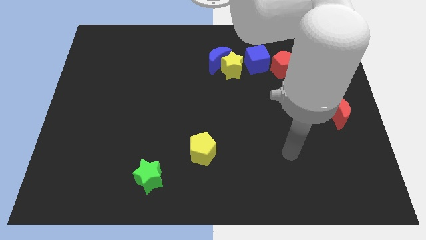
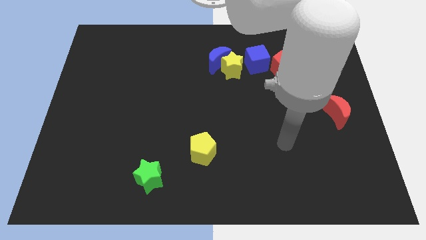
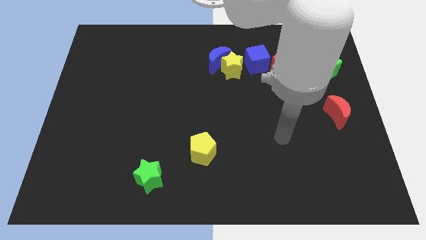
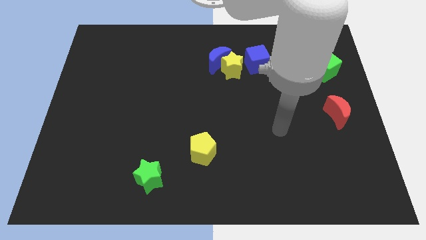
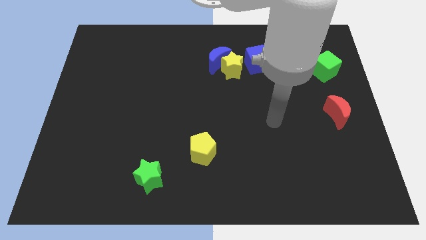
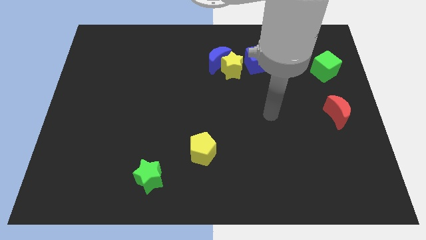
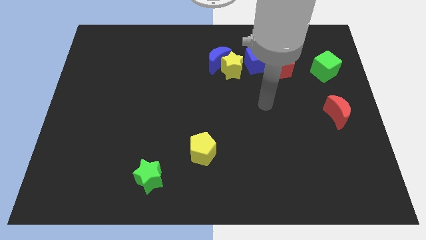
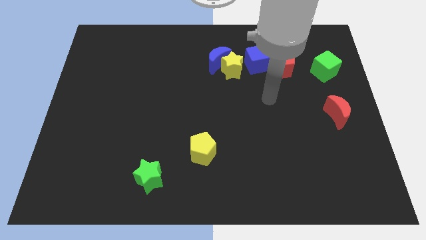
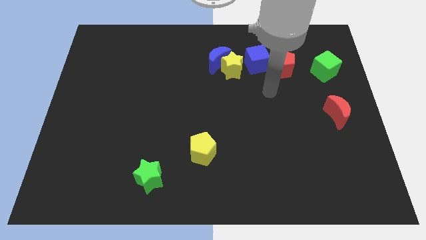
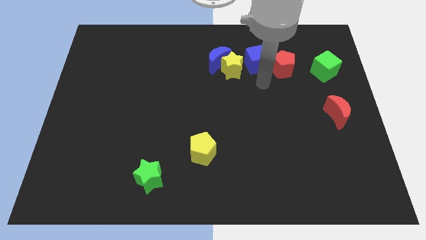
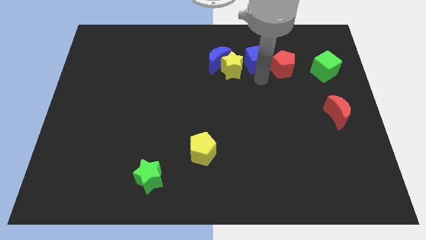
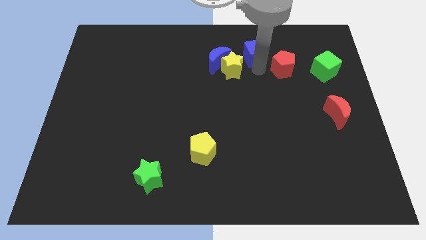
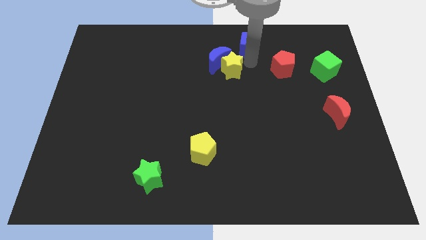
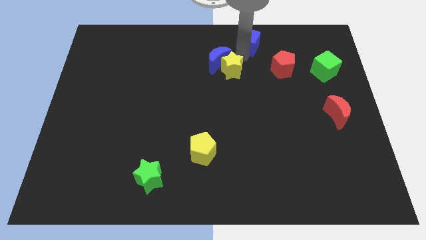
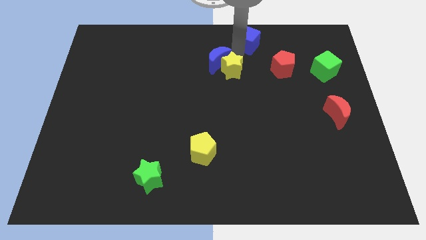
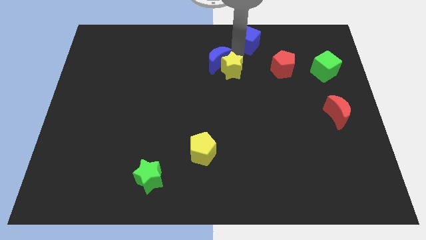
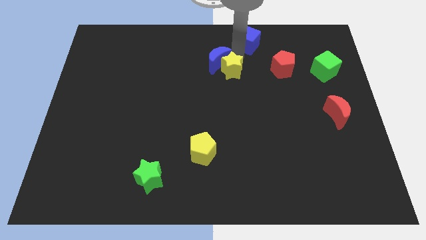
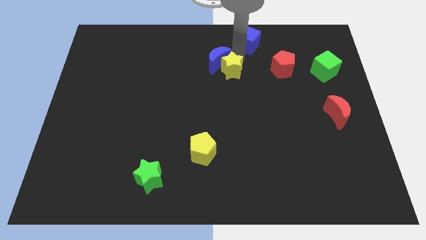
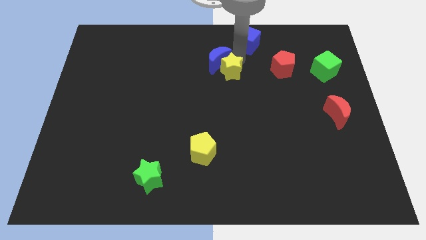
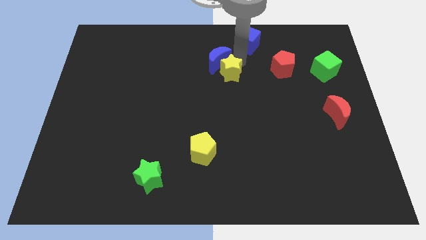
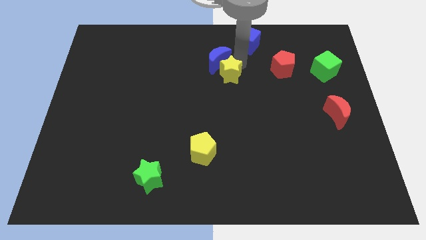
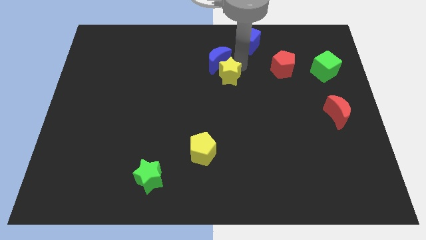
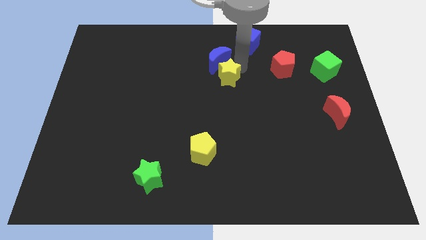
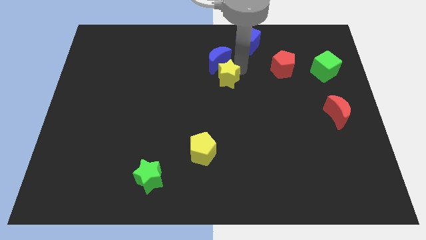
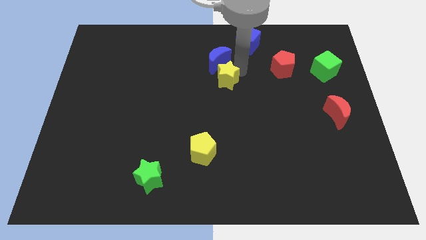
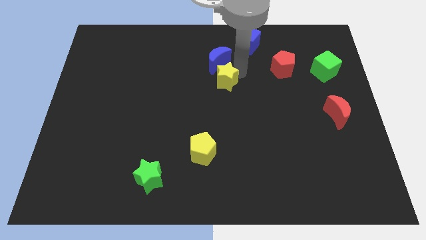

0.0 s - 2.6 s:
move the yellow star away from the blue moon and blue cube

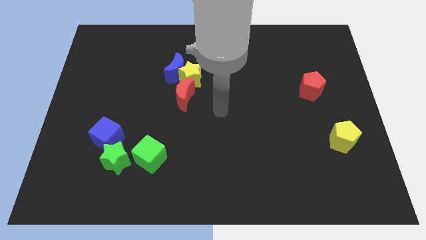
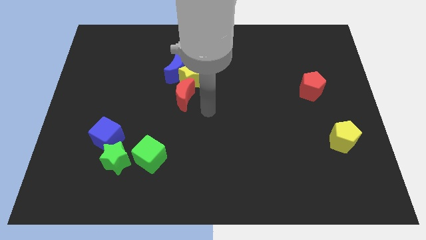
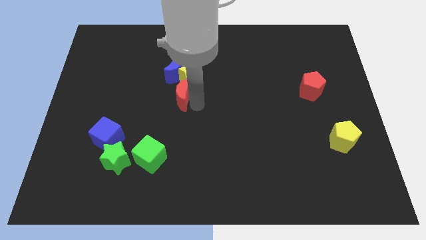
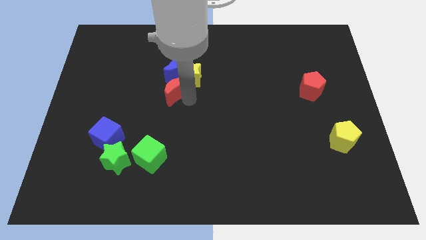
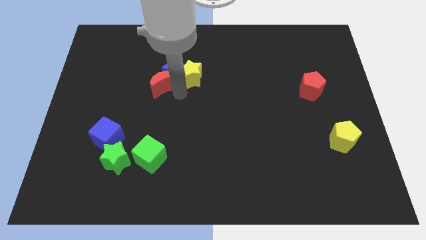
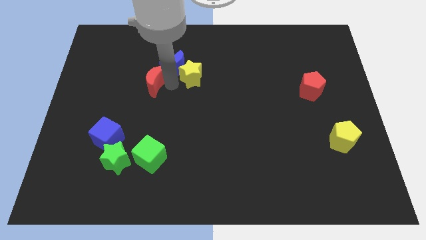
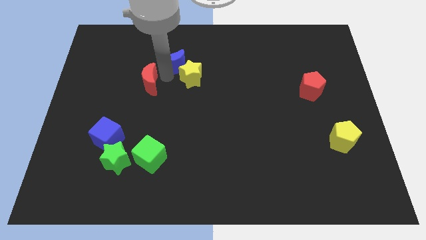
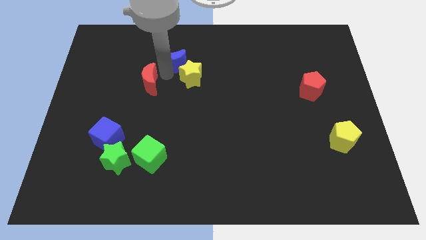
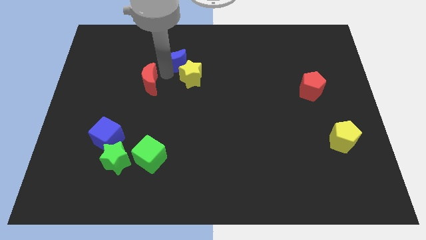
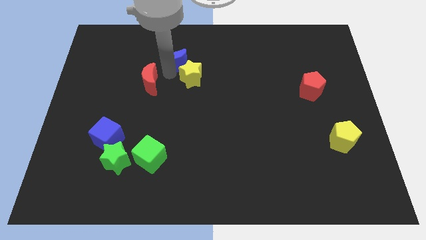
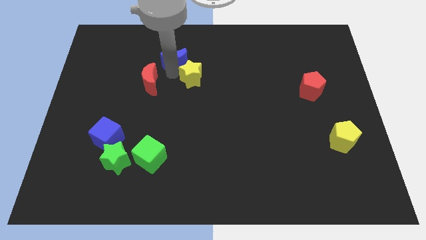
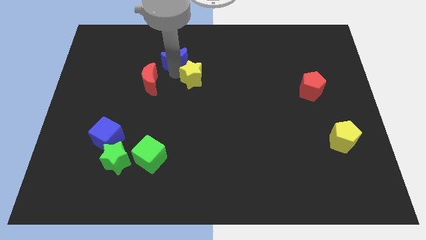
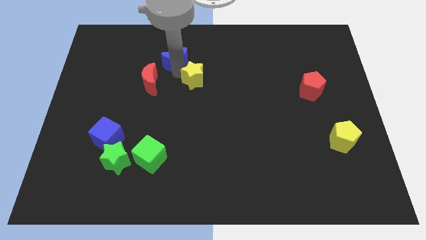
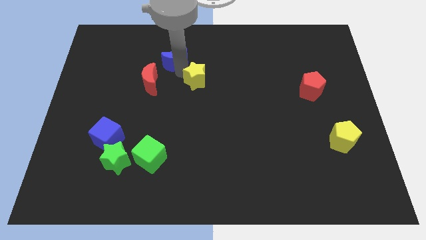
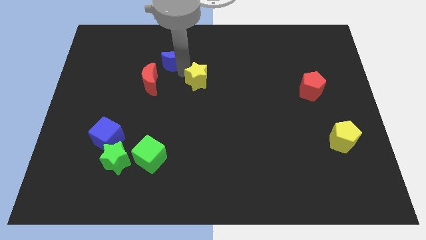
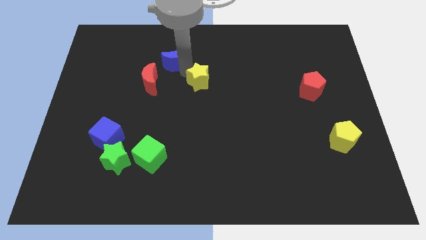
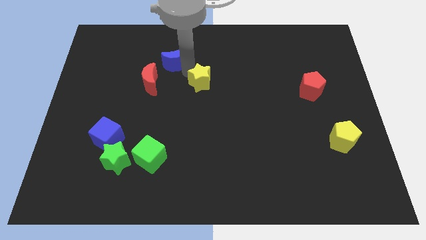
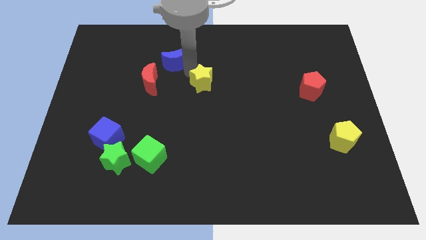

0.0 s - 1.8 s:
separate the yellow star from the blue moon and red moon

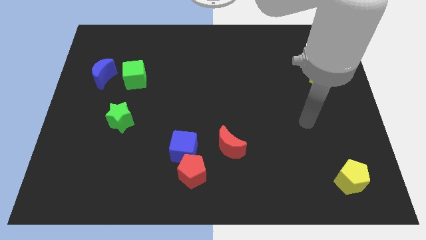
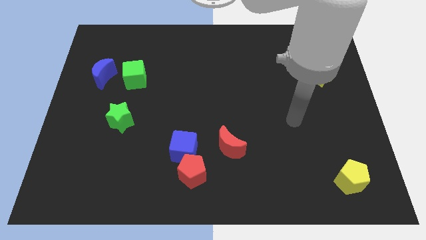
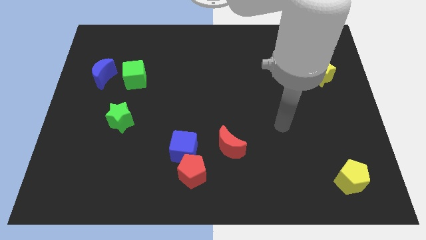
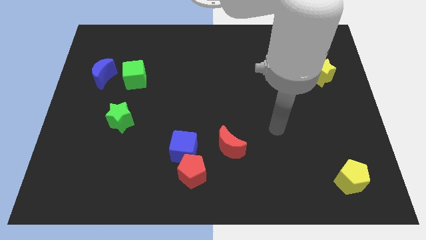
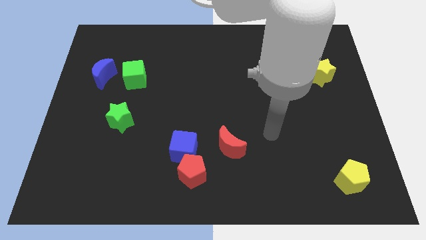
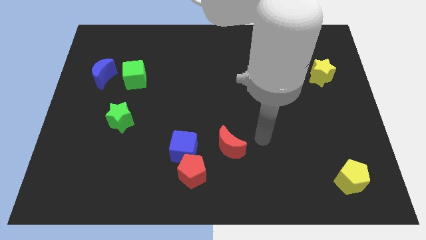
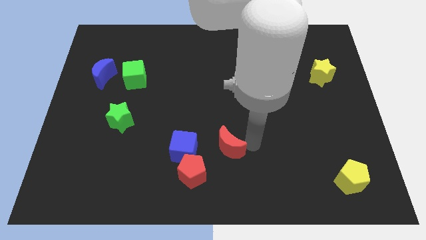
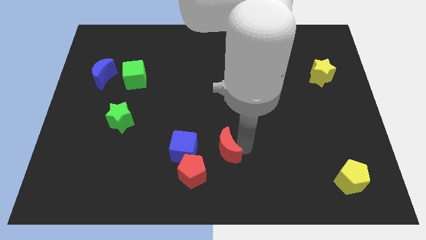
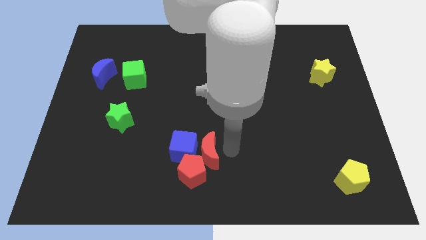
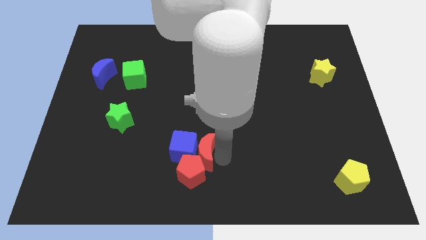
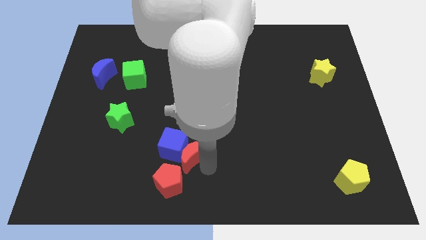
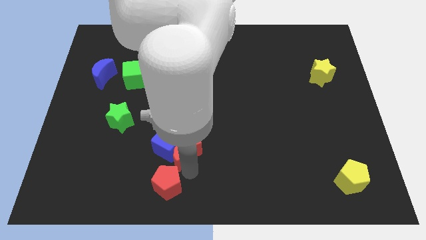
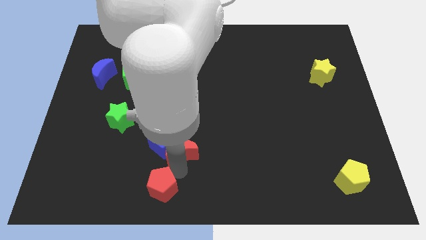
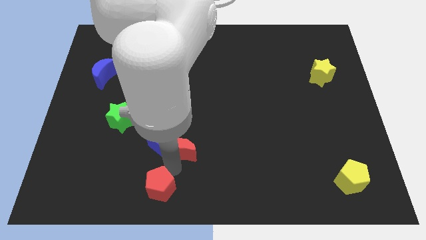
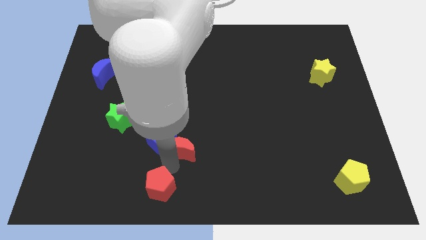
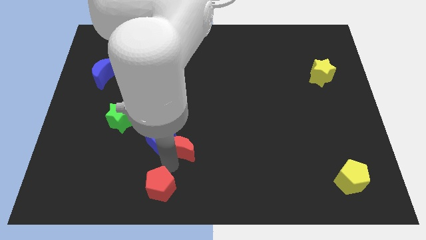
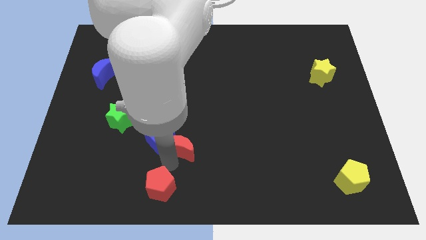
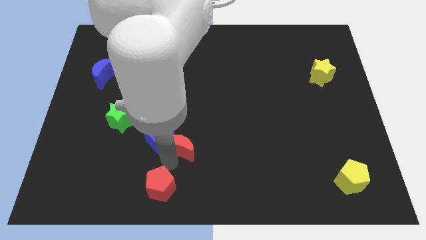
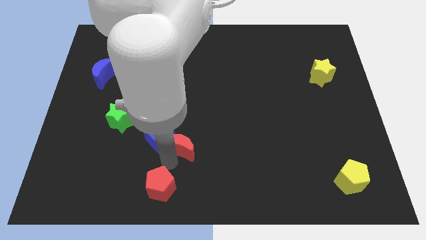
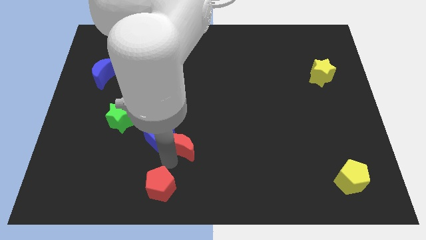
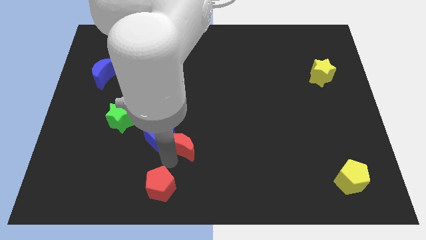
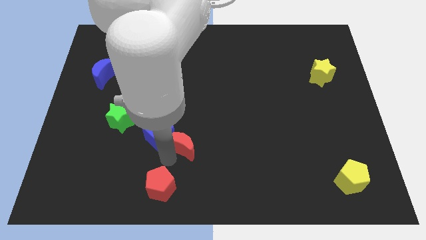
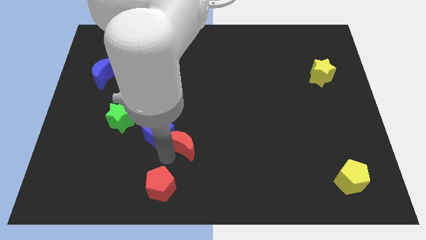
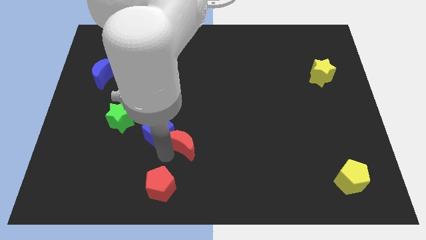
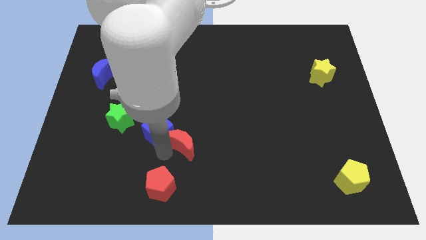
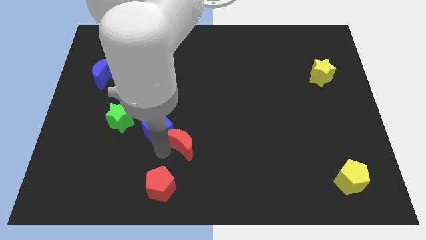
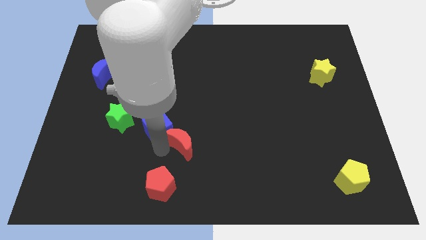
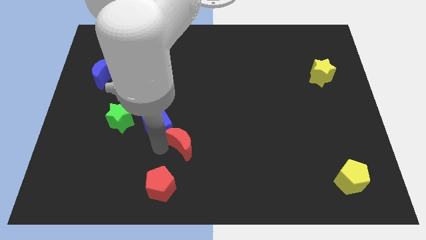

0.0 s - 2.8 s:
move the blue cube away from the red pentagon and red moon

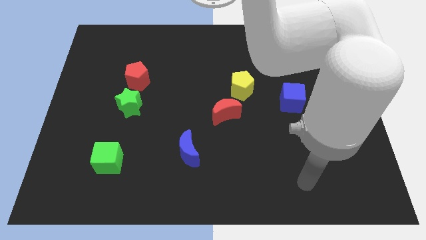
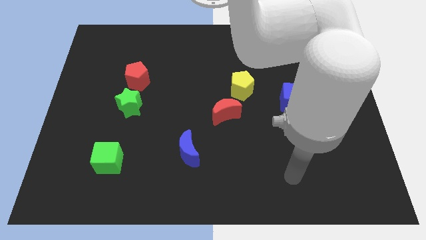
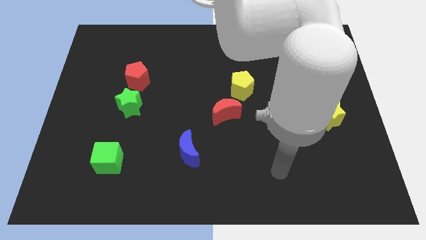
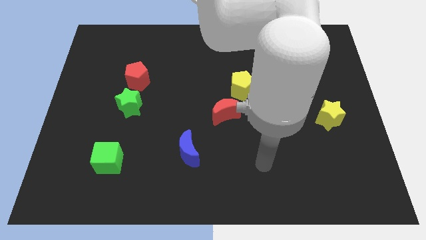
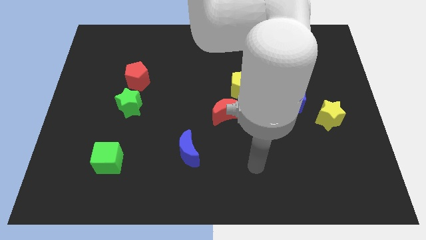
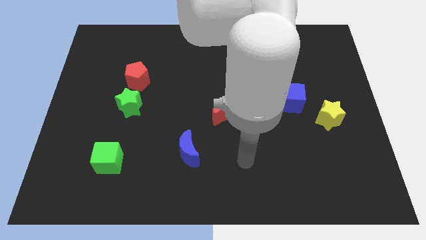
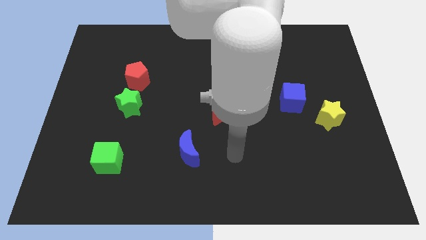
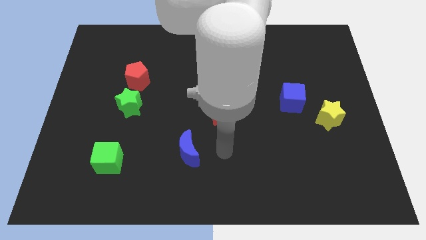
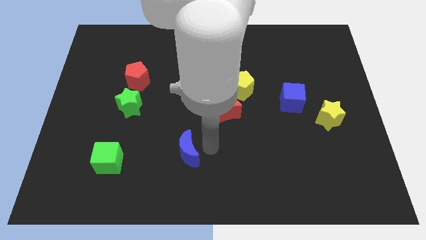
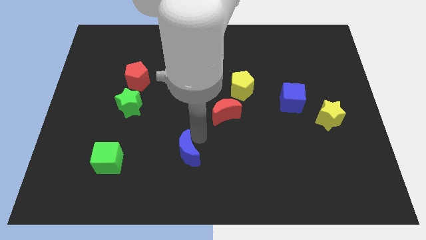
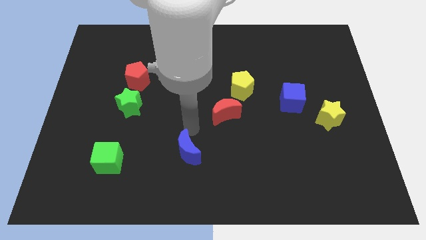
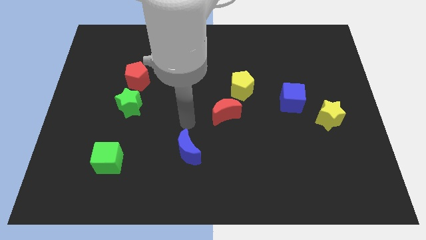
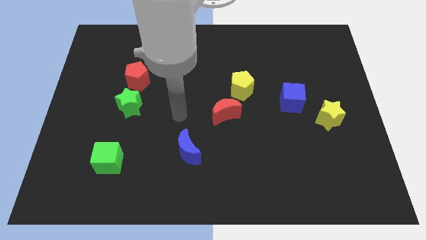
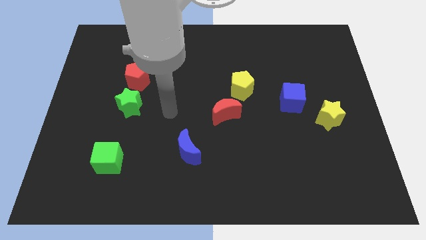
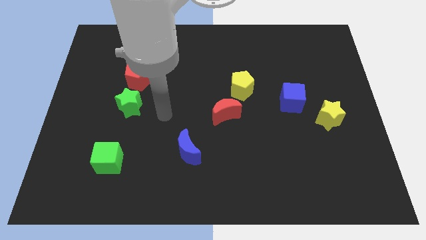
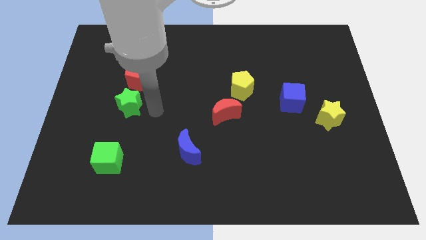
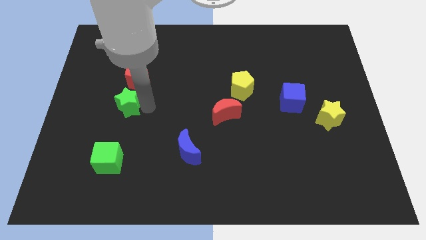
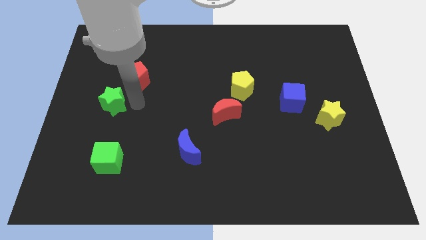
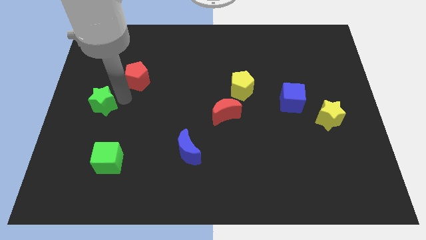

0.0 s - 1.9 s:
separate the red pentagon from the green star

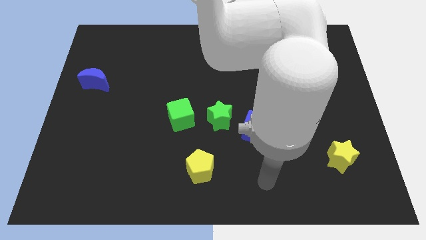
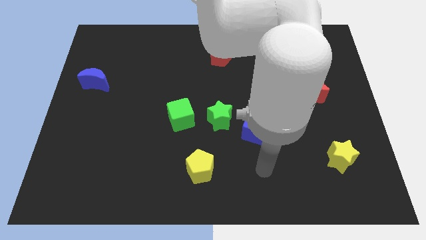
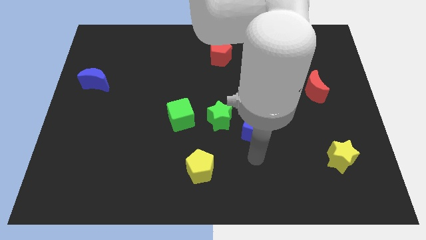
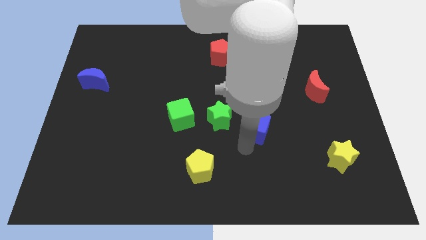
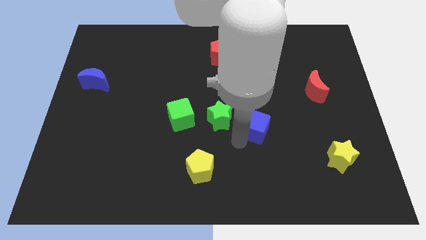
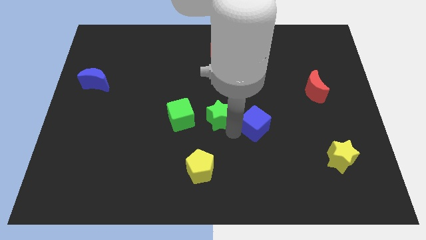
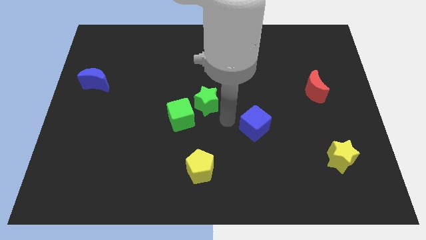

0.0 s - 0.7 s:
move the blue cube away from the green star
